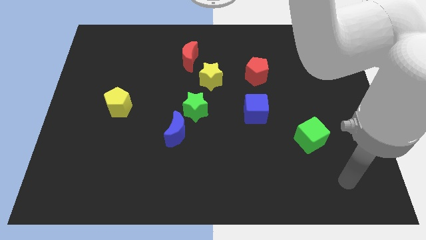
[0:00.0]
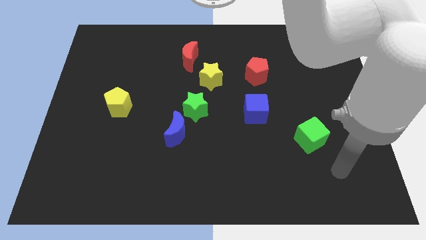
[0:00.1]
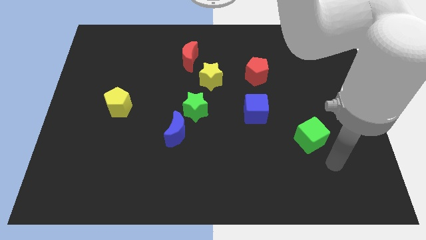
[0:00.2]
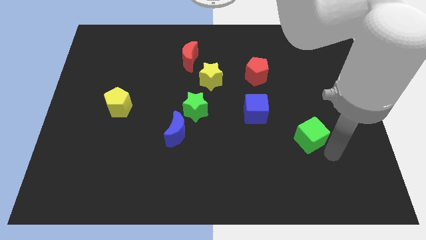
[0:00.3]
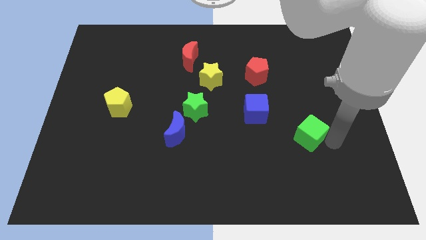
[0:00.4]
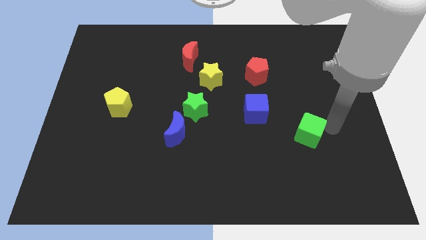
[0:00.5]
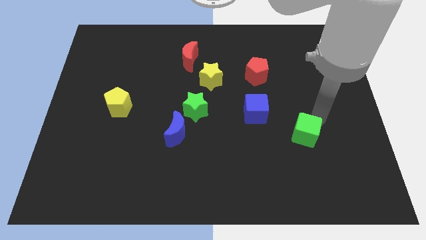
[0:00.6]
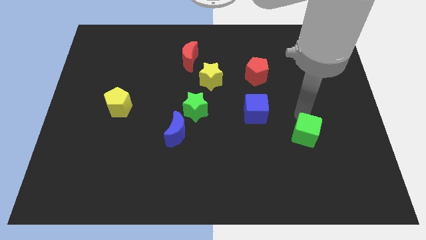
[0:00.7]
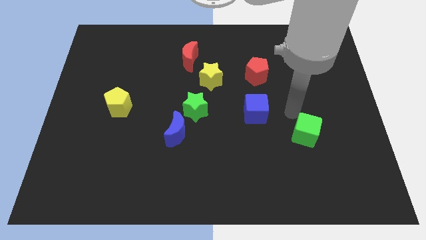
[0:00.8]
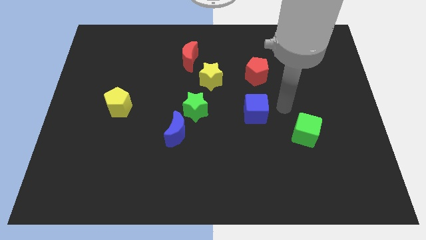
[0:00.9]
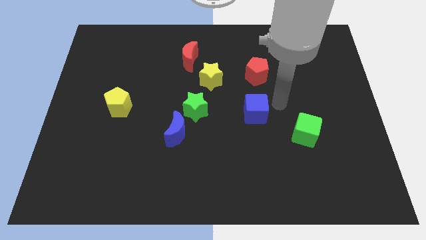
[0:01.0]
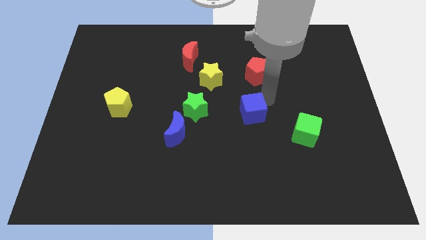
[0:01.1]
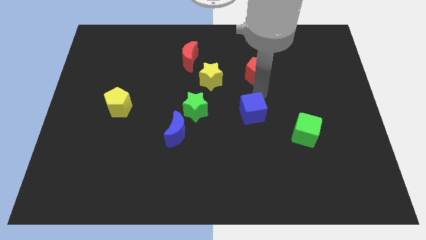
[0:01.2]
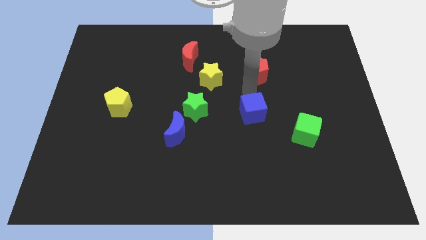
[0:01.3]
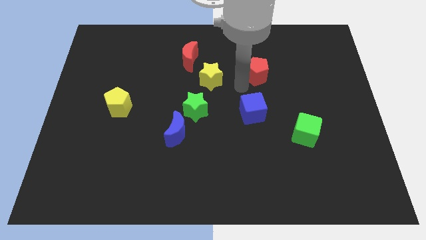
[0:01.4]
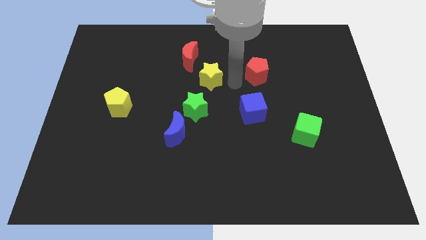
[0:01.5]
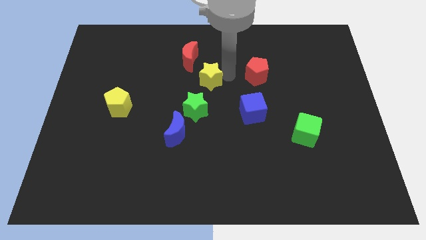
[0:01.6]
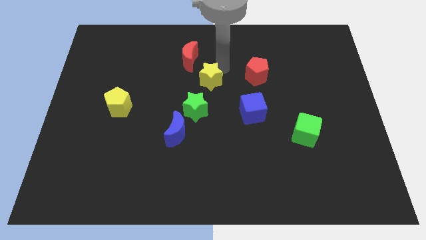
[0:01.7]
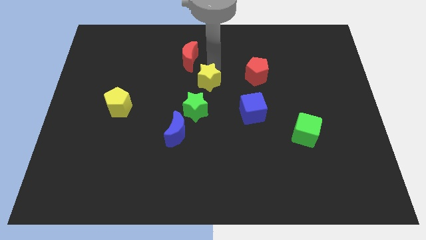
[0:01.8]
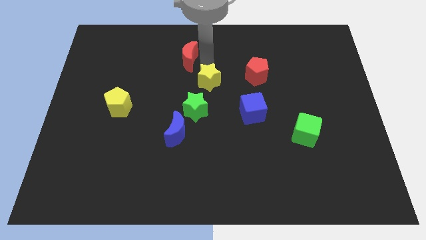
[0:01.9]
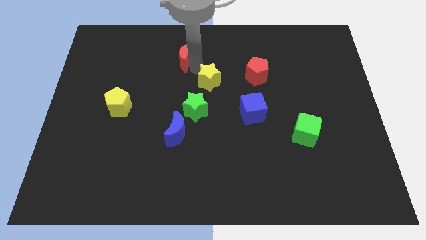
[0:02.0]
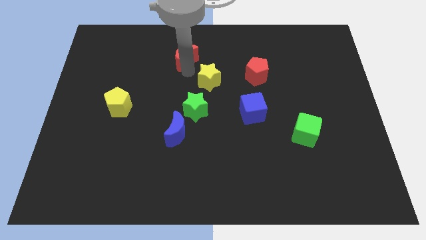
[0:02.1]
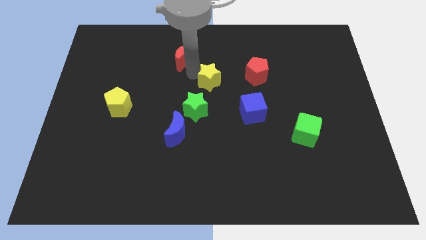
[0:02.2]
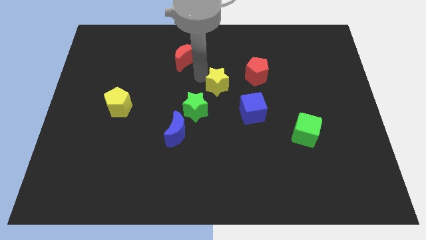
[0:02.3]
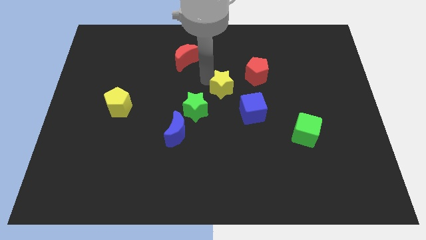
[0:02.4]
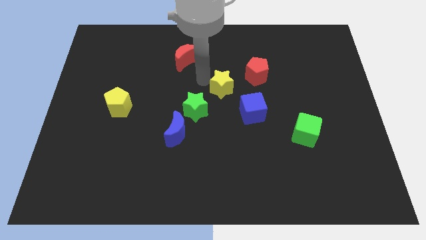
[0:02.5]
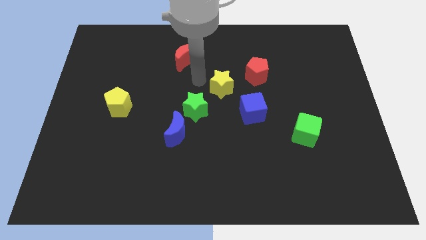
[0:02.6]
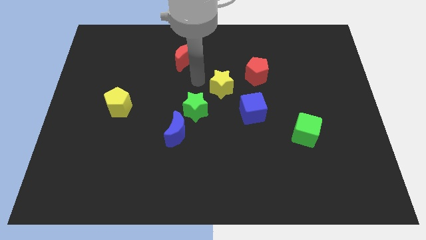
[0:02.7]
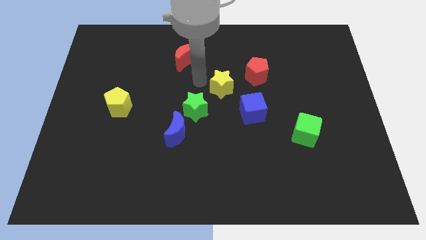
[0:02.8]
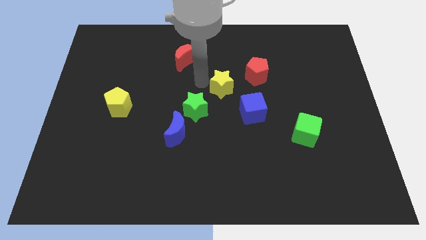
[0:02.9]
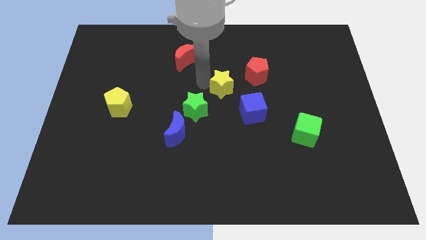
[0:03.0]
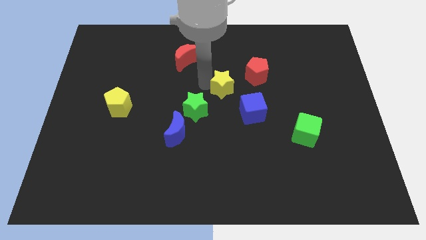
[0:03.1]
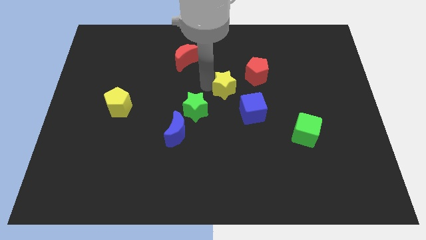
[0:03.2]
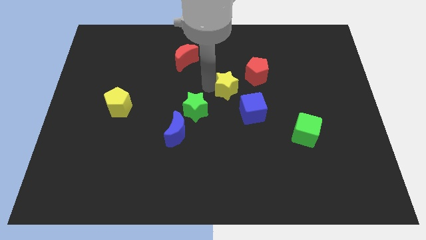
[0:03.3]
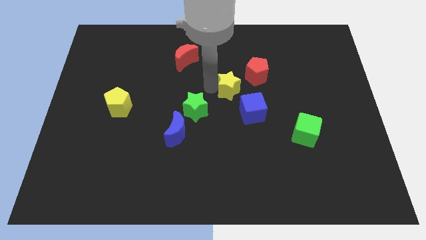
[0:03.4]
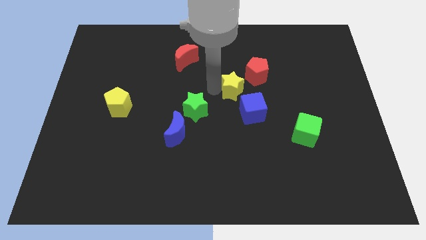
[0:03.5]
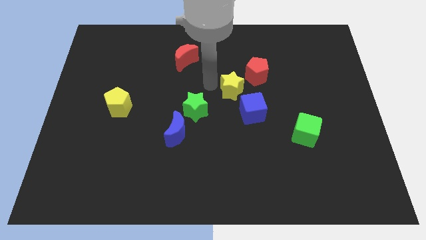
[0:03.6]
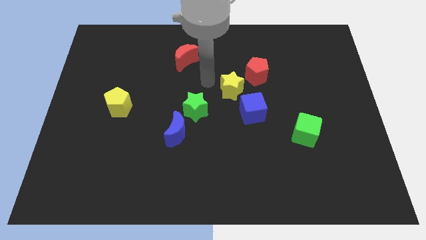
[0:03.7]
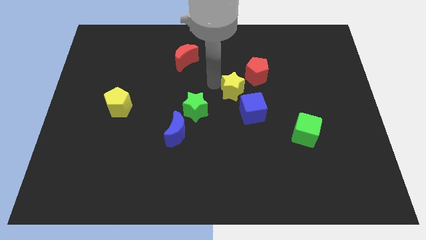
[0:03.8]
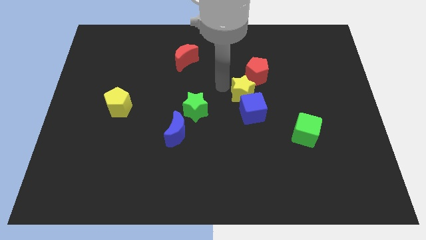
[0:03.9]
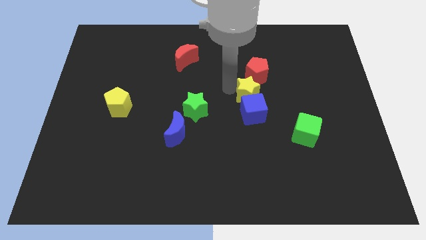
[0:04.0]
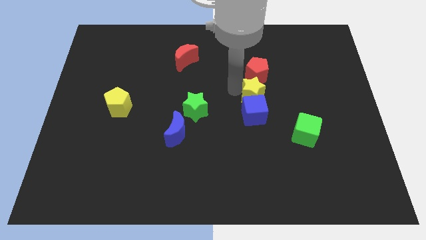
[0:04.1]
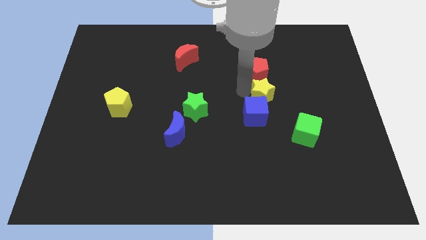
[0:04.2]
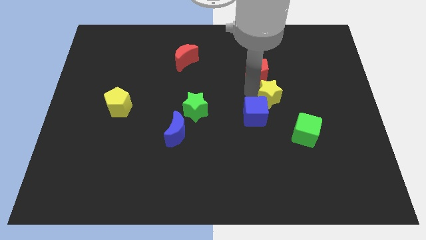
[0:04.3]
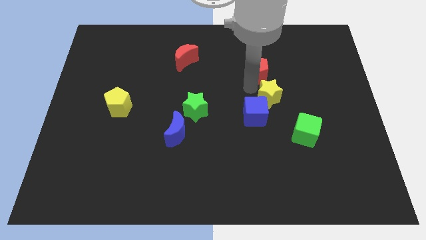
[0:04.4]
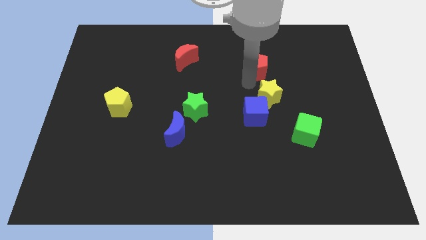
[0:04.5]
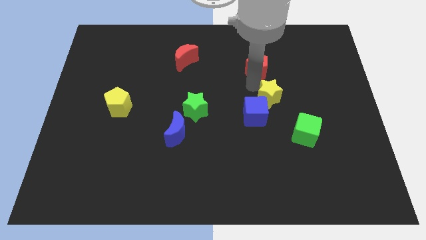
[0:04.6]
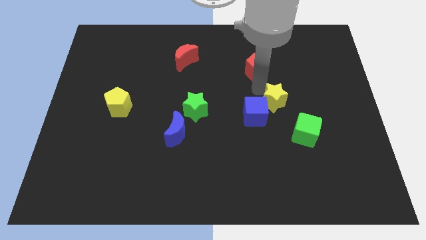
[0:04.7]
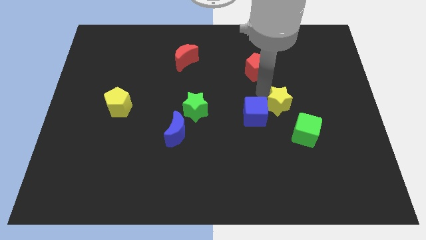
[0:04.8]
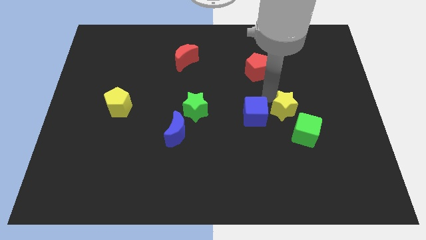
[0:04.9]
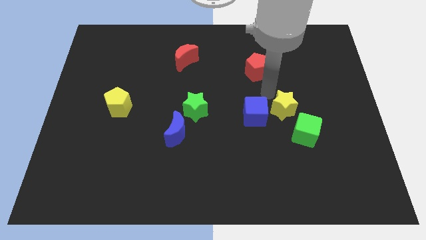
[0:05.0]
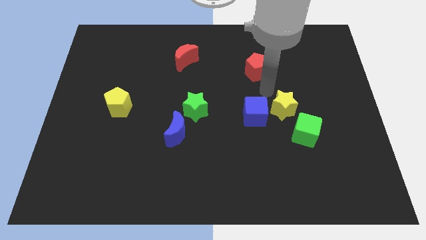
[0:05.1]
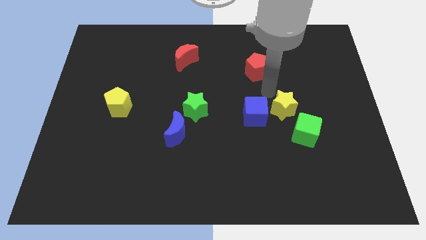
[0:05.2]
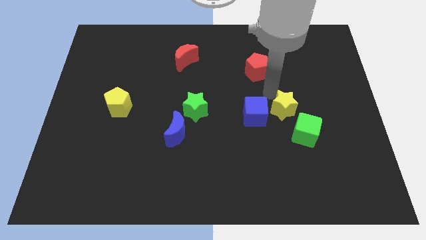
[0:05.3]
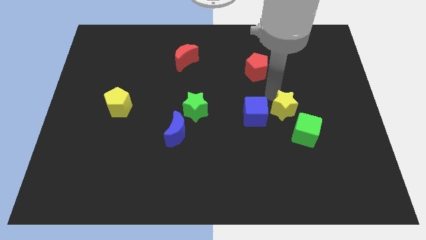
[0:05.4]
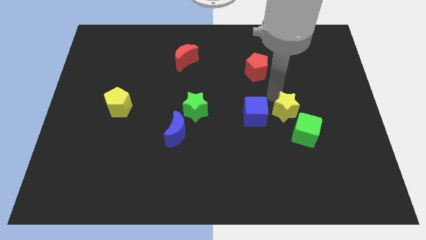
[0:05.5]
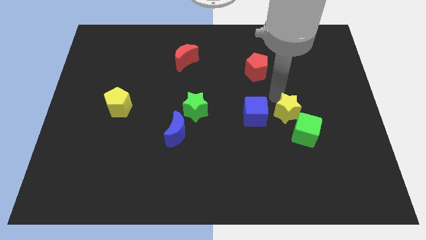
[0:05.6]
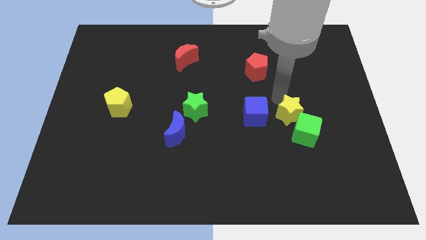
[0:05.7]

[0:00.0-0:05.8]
move the yellow star next to the green cube

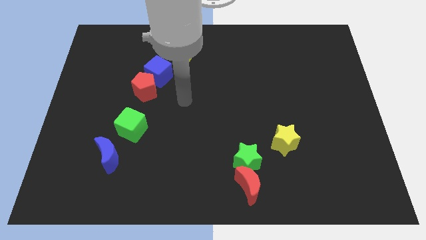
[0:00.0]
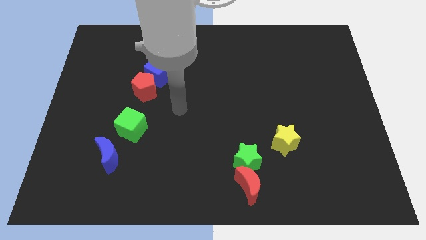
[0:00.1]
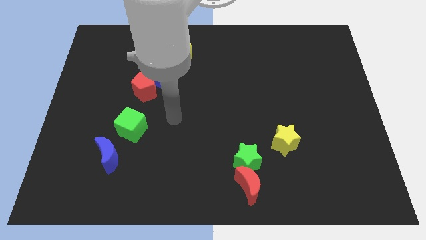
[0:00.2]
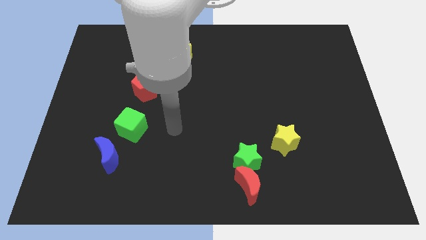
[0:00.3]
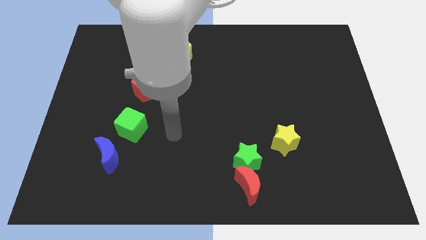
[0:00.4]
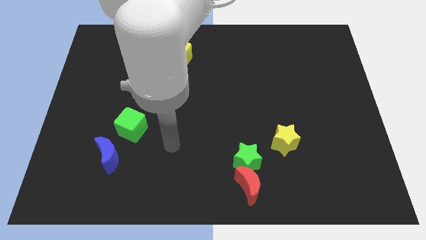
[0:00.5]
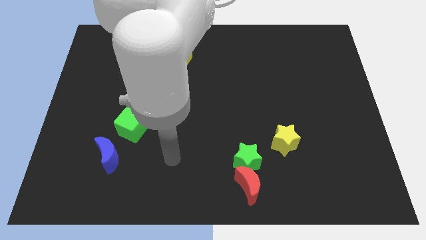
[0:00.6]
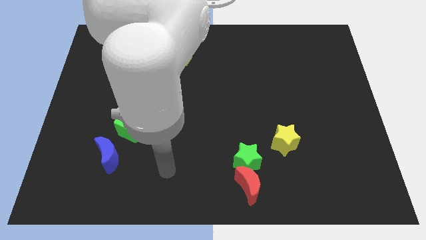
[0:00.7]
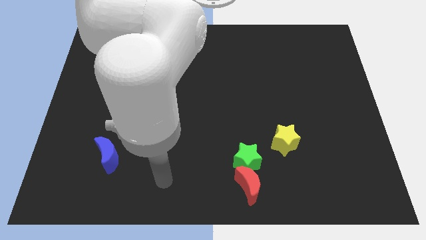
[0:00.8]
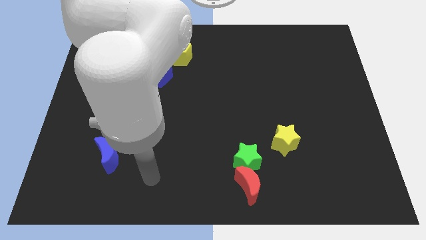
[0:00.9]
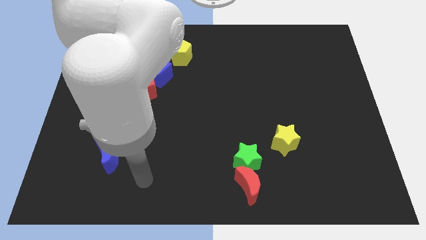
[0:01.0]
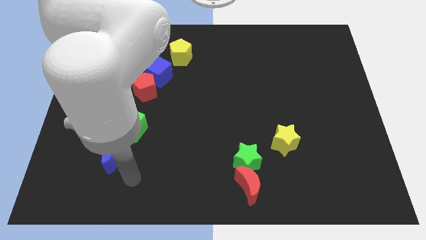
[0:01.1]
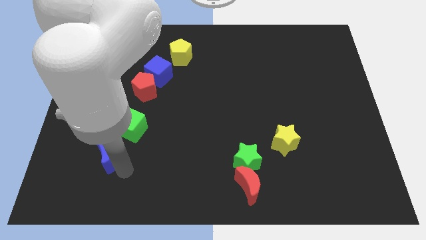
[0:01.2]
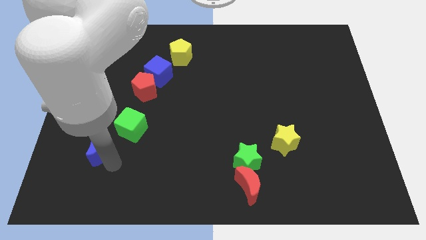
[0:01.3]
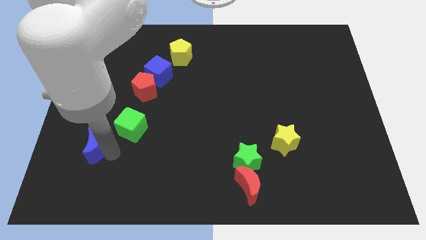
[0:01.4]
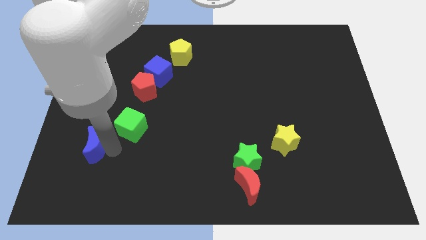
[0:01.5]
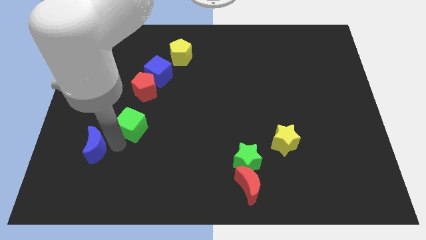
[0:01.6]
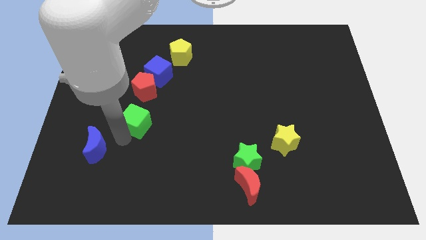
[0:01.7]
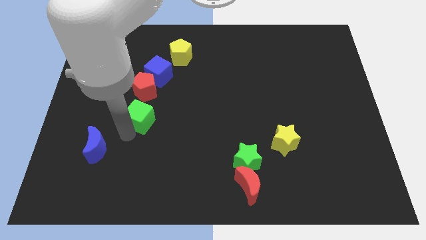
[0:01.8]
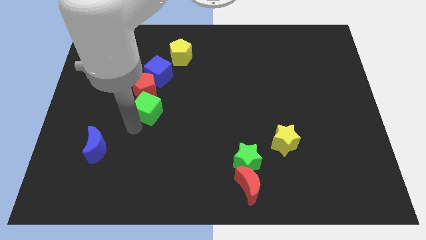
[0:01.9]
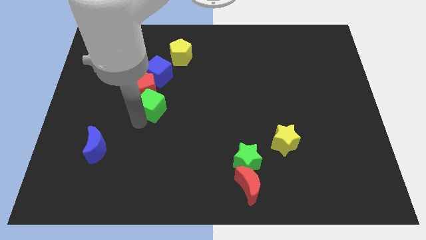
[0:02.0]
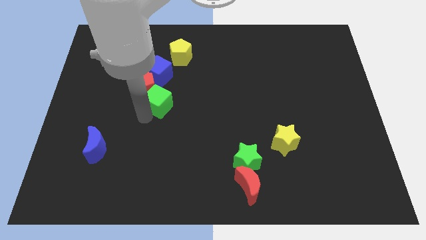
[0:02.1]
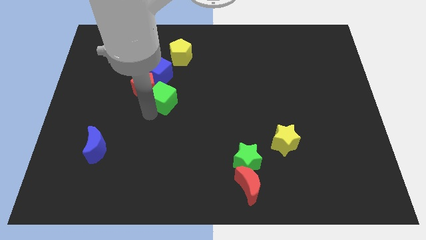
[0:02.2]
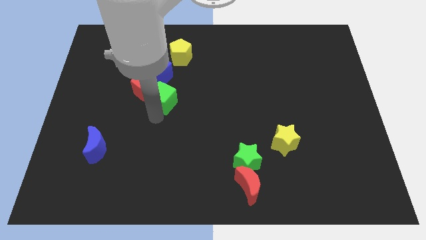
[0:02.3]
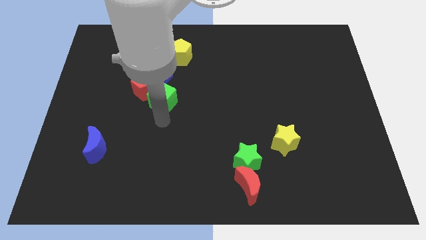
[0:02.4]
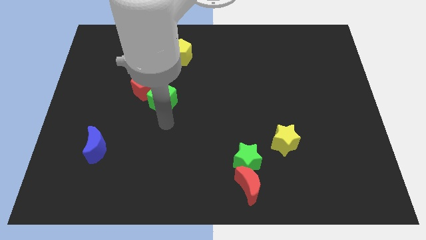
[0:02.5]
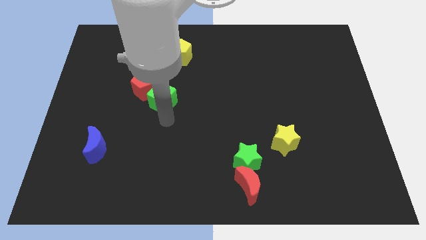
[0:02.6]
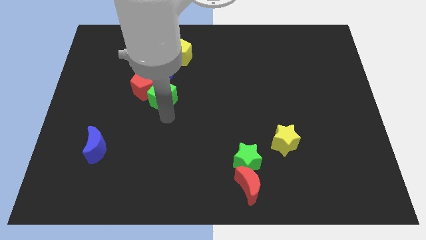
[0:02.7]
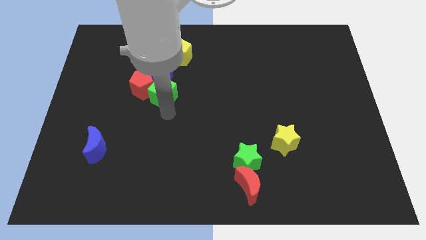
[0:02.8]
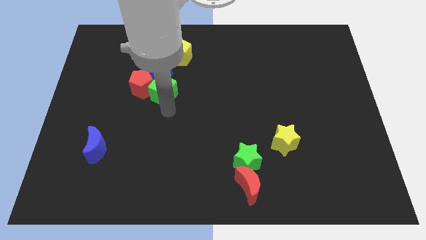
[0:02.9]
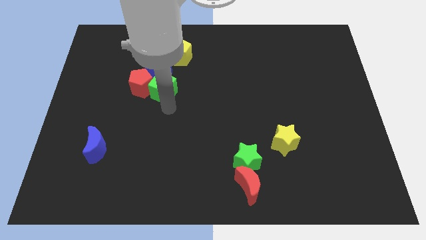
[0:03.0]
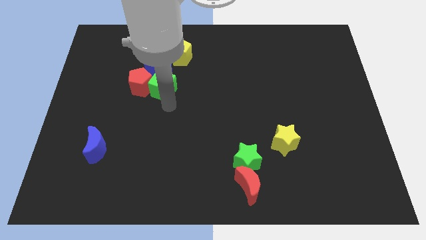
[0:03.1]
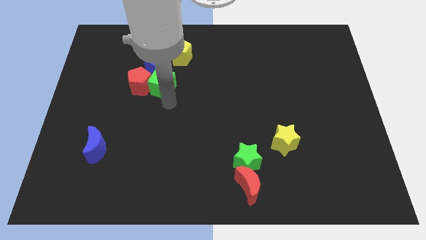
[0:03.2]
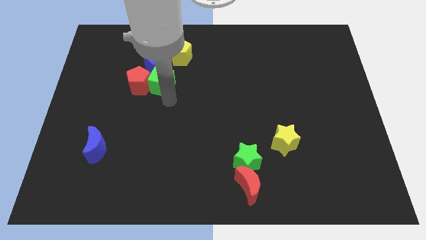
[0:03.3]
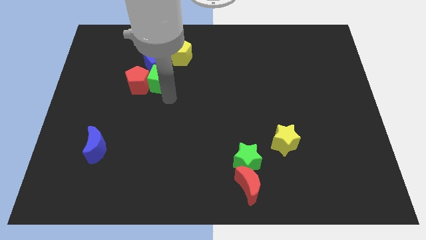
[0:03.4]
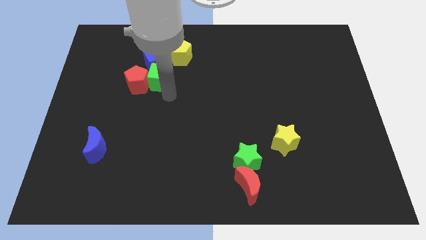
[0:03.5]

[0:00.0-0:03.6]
move the green cube close to the blue cube
